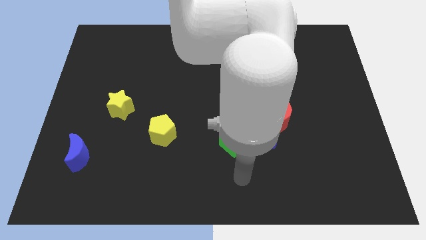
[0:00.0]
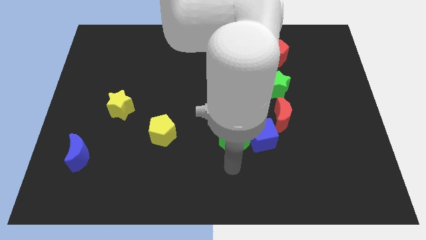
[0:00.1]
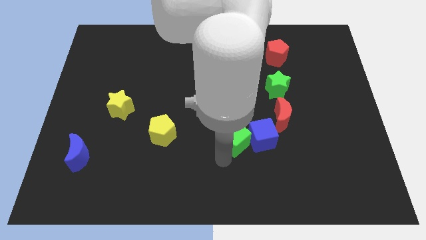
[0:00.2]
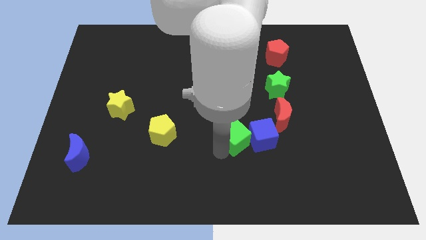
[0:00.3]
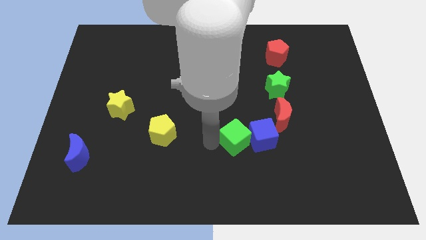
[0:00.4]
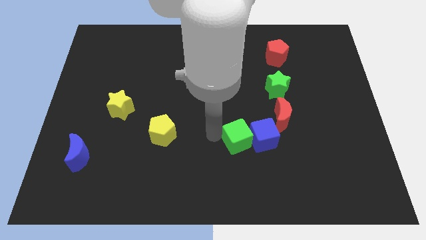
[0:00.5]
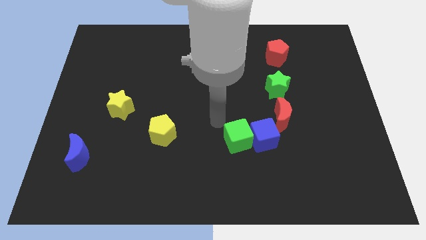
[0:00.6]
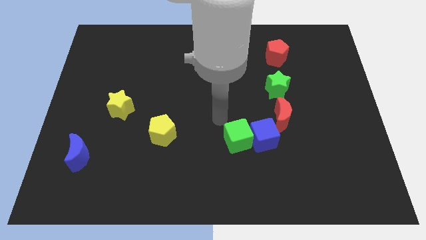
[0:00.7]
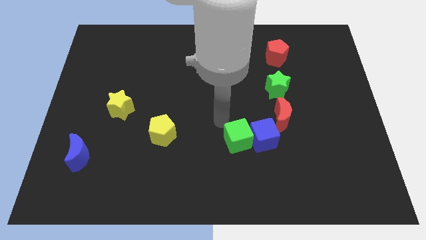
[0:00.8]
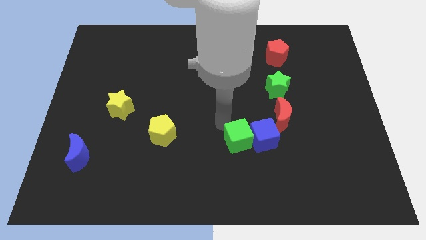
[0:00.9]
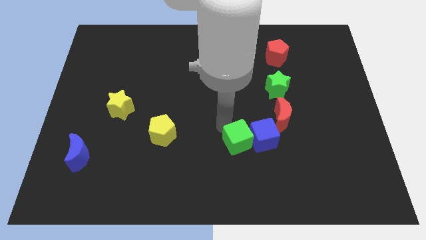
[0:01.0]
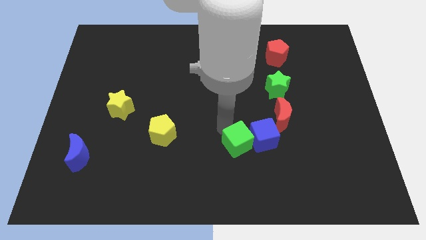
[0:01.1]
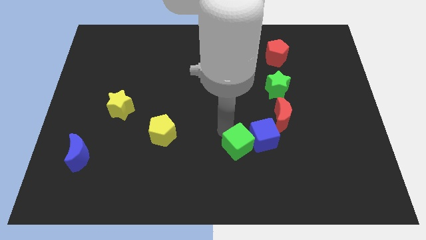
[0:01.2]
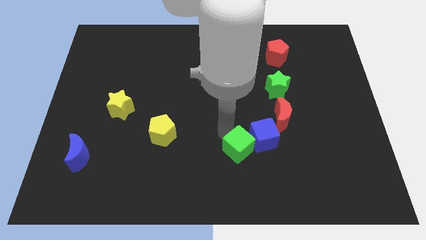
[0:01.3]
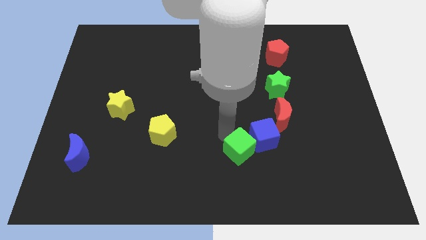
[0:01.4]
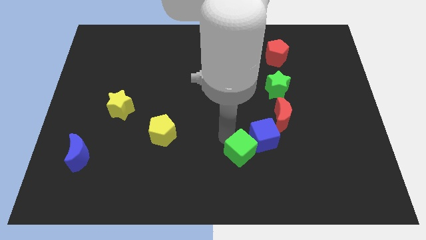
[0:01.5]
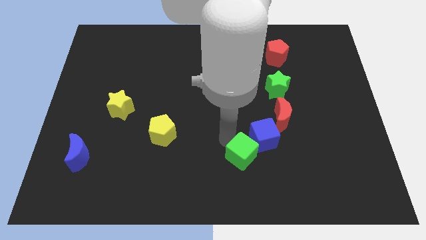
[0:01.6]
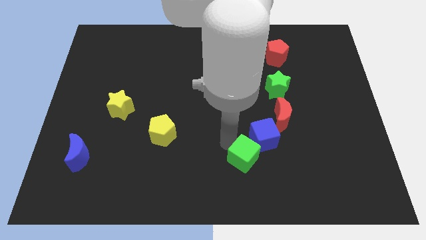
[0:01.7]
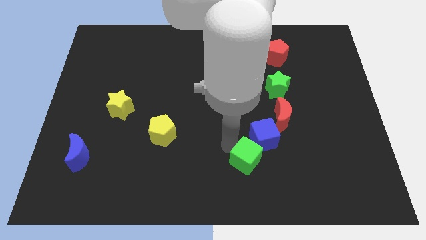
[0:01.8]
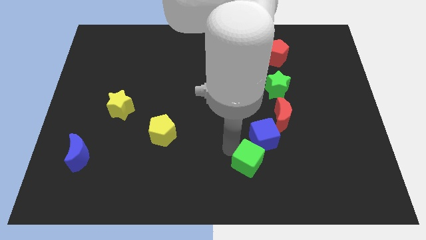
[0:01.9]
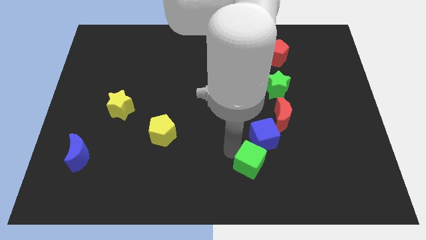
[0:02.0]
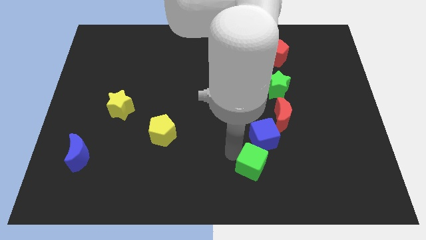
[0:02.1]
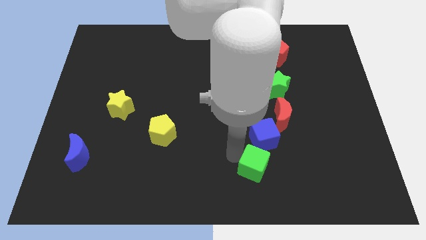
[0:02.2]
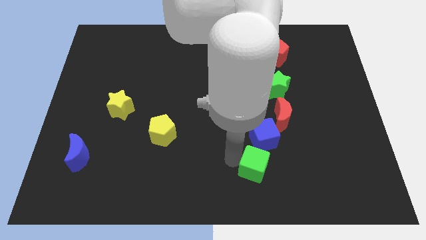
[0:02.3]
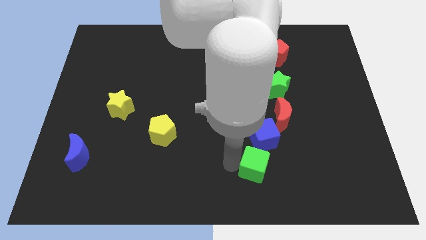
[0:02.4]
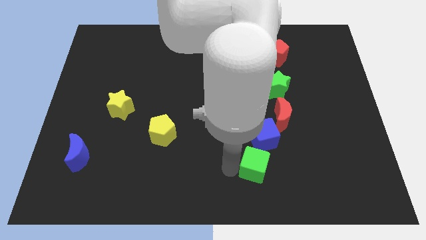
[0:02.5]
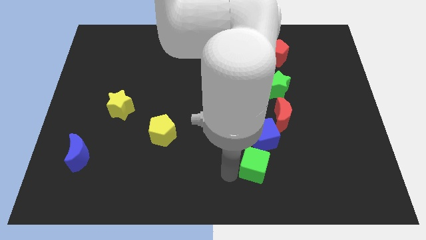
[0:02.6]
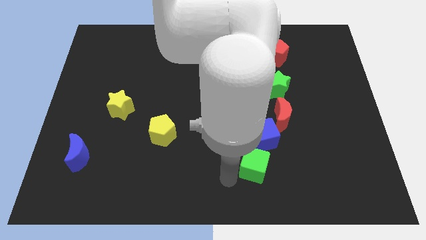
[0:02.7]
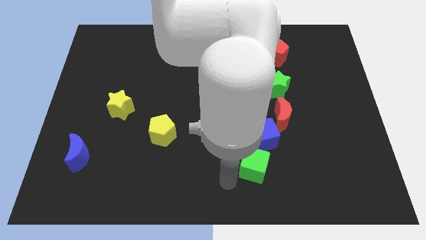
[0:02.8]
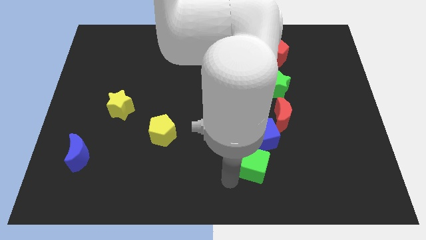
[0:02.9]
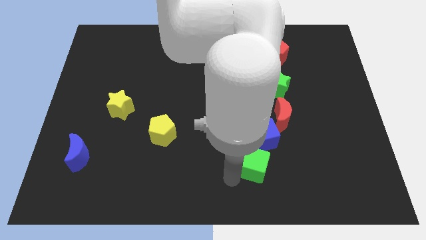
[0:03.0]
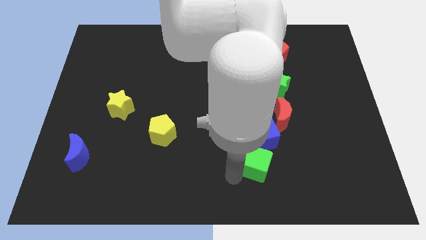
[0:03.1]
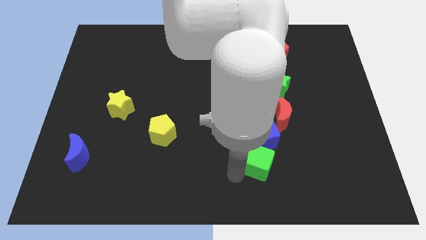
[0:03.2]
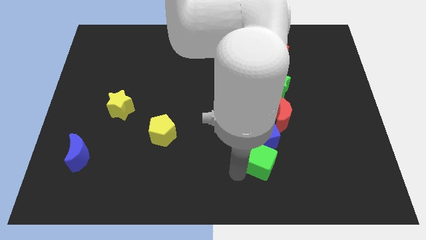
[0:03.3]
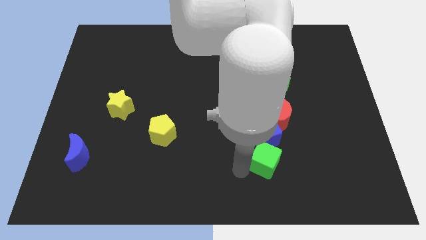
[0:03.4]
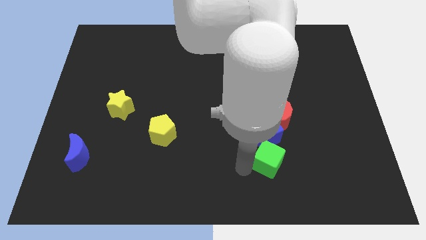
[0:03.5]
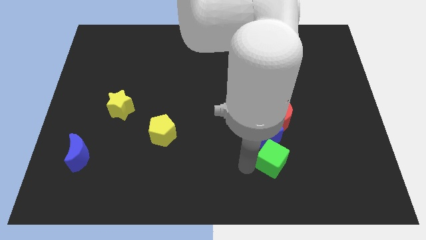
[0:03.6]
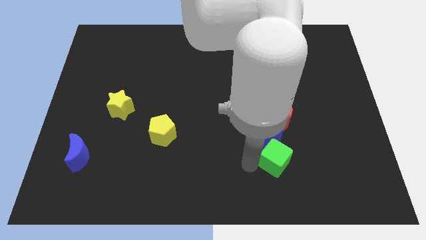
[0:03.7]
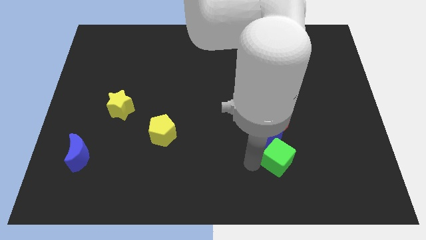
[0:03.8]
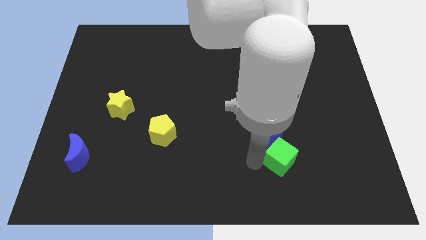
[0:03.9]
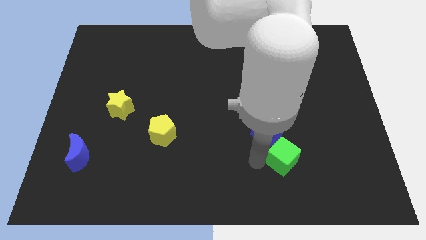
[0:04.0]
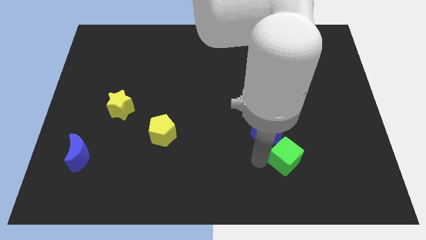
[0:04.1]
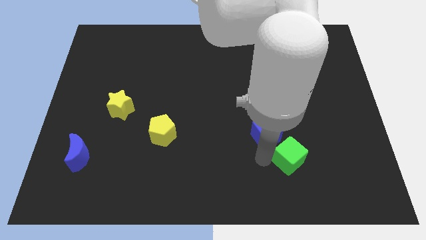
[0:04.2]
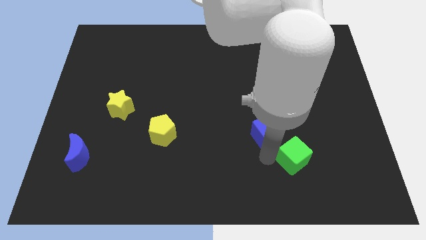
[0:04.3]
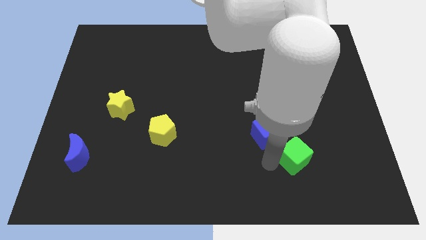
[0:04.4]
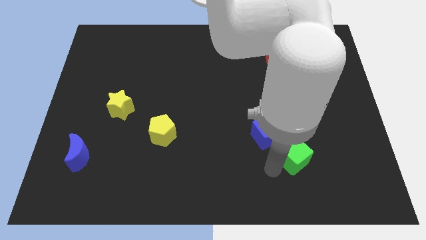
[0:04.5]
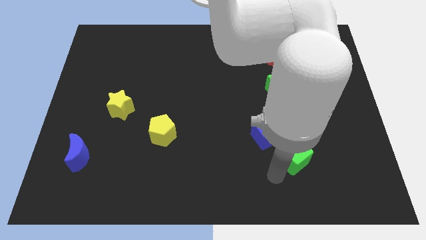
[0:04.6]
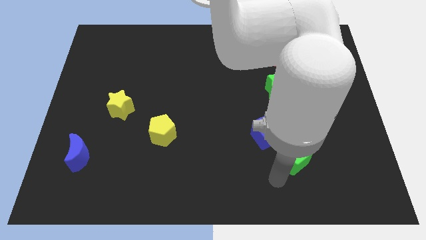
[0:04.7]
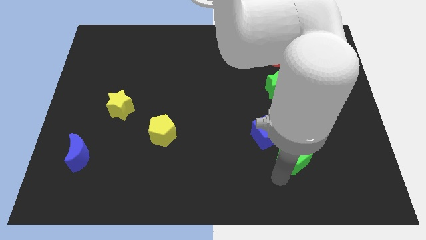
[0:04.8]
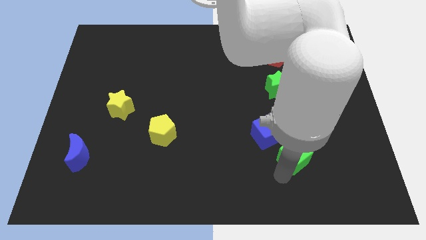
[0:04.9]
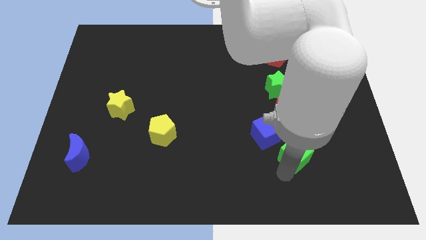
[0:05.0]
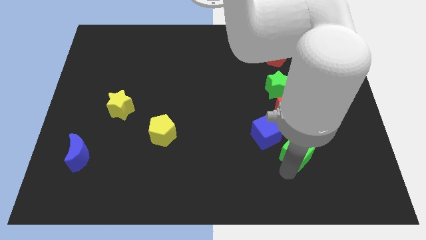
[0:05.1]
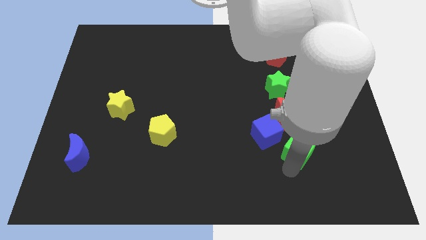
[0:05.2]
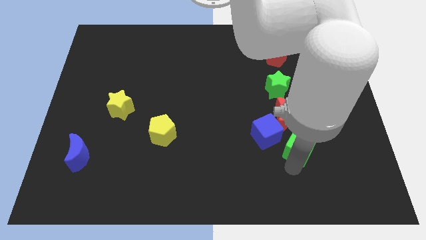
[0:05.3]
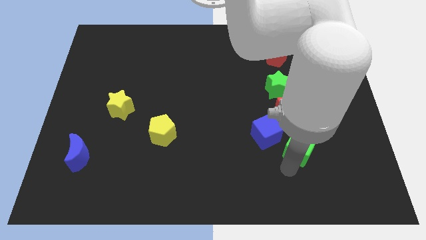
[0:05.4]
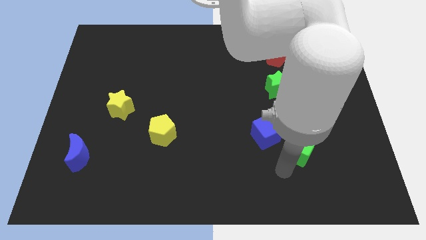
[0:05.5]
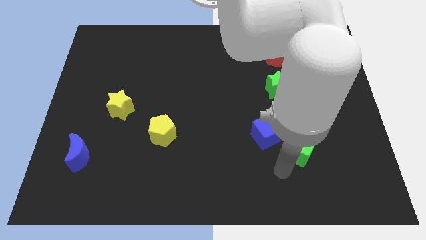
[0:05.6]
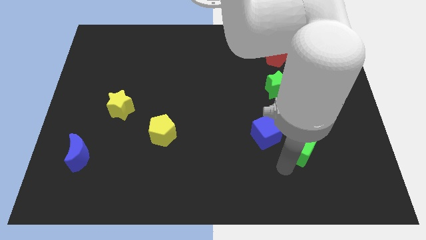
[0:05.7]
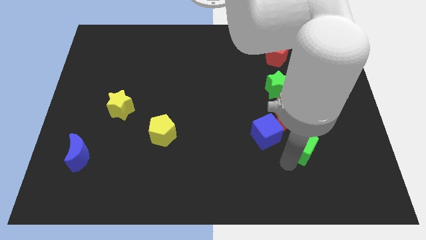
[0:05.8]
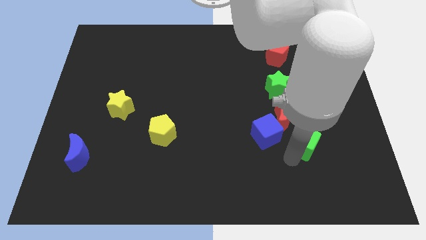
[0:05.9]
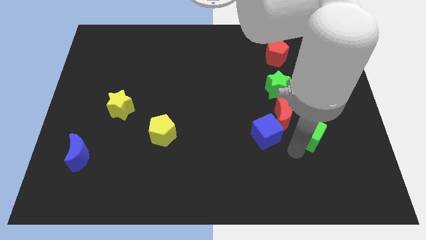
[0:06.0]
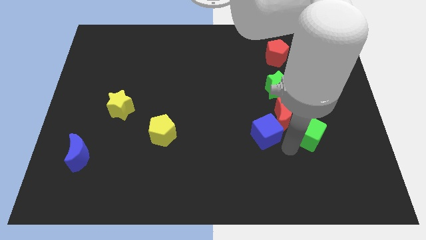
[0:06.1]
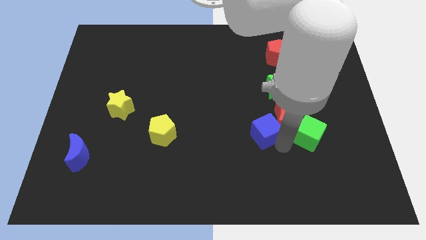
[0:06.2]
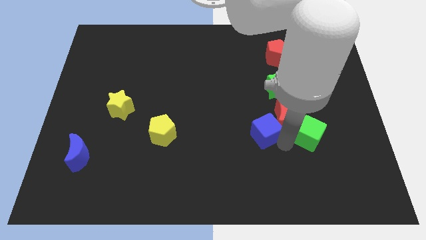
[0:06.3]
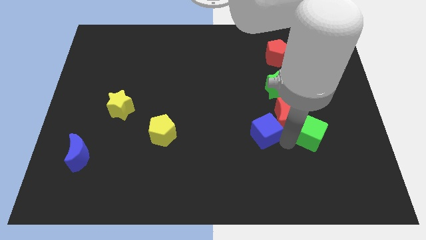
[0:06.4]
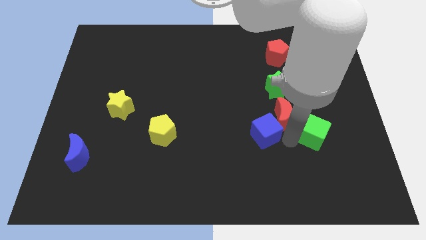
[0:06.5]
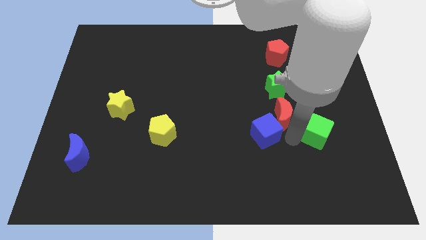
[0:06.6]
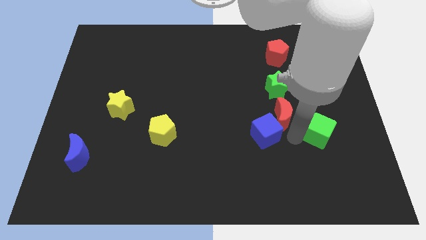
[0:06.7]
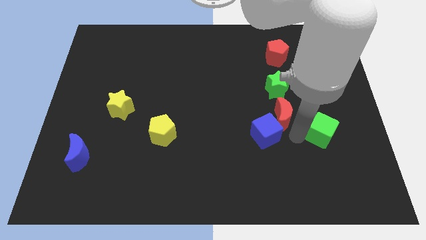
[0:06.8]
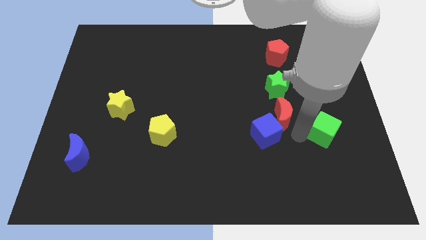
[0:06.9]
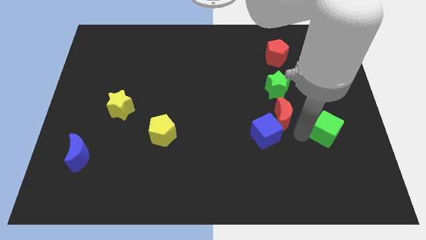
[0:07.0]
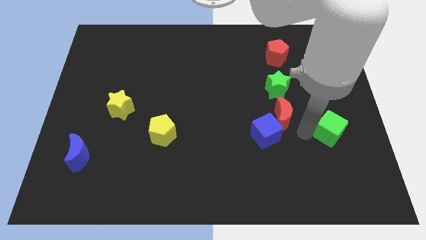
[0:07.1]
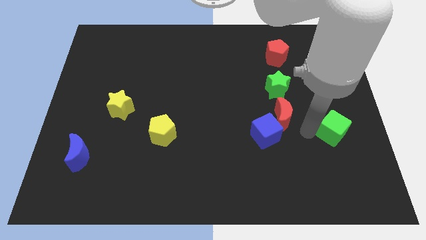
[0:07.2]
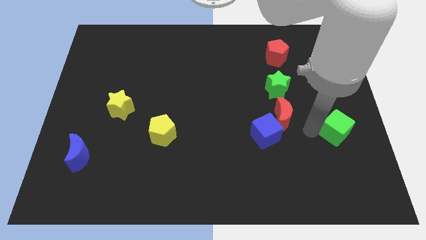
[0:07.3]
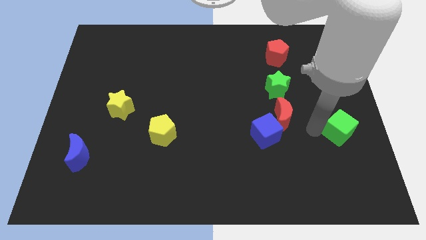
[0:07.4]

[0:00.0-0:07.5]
move the green cube to the center right
